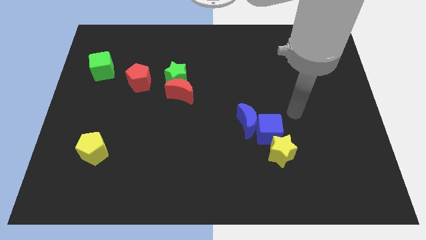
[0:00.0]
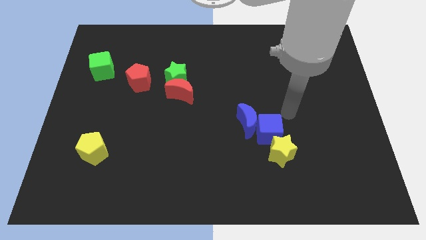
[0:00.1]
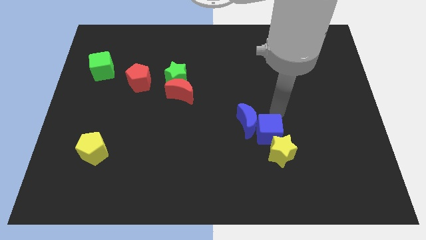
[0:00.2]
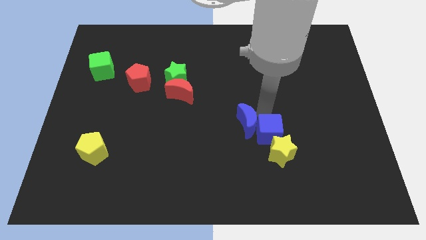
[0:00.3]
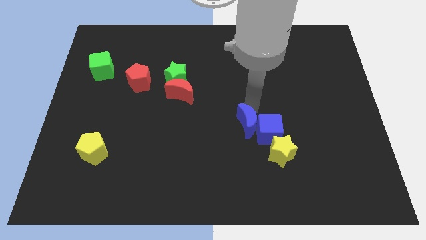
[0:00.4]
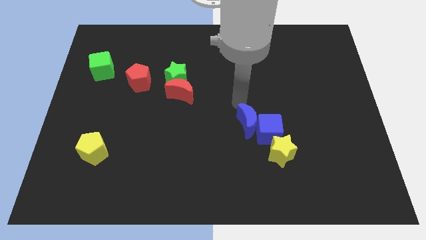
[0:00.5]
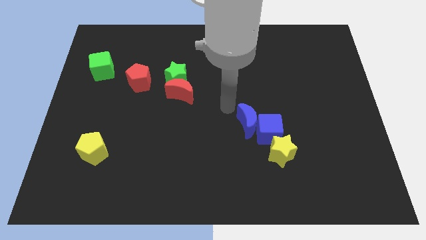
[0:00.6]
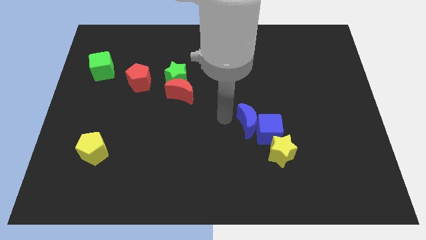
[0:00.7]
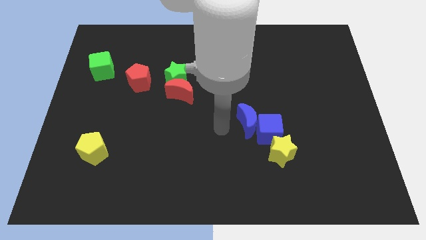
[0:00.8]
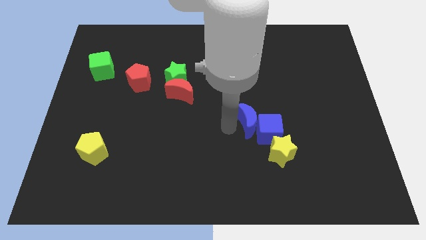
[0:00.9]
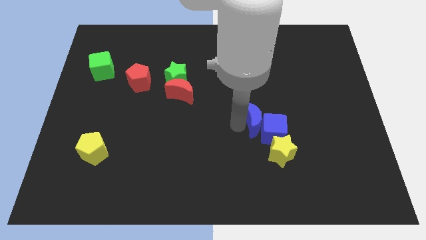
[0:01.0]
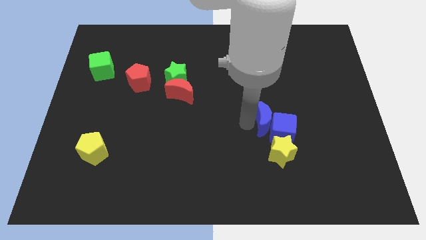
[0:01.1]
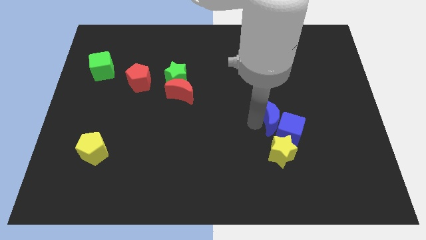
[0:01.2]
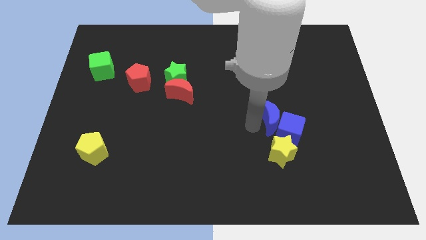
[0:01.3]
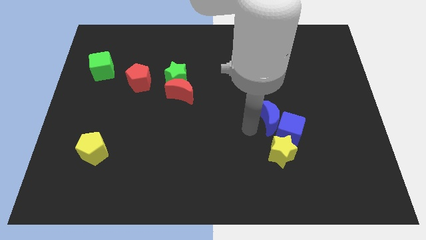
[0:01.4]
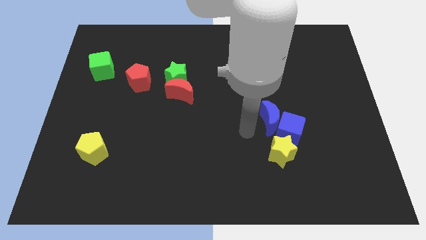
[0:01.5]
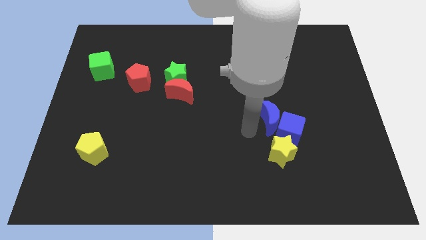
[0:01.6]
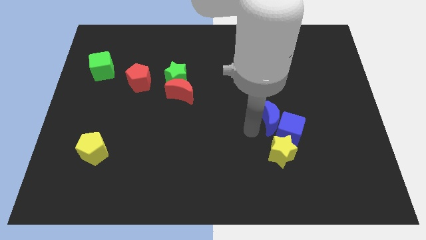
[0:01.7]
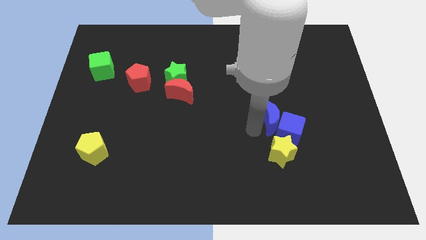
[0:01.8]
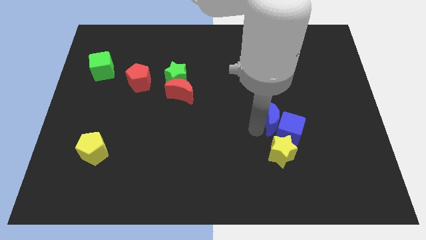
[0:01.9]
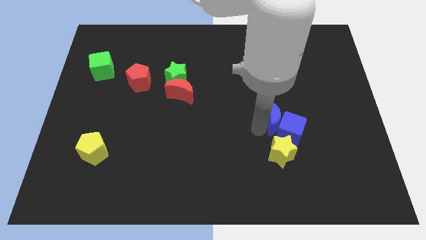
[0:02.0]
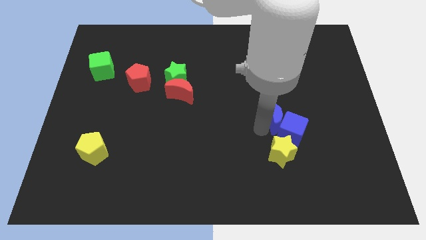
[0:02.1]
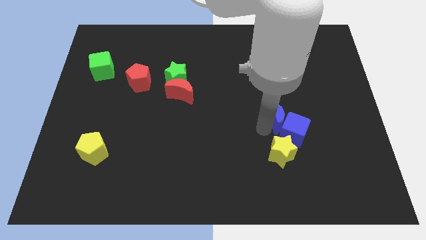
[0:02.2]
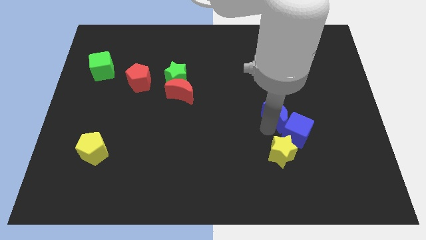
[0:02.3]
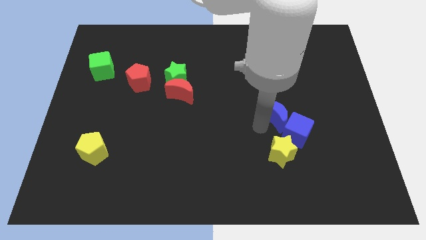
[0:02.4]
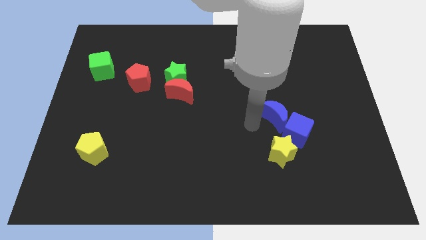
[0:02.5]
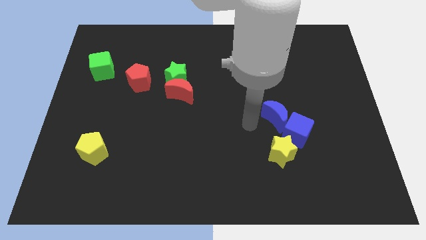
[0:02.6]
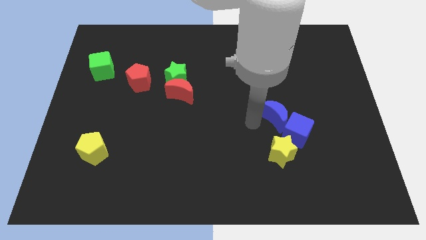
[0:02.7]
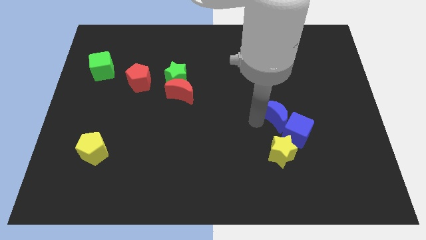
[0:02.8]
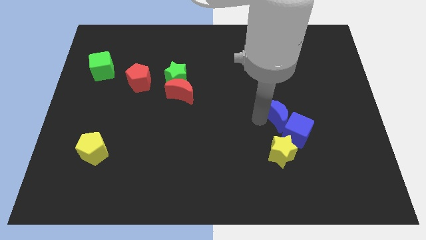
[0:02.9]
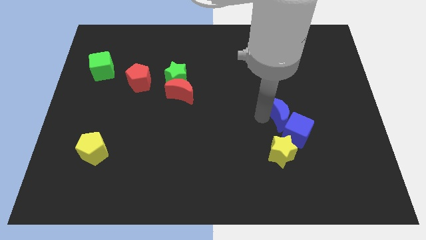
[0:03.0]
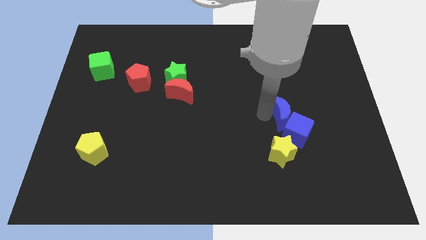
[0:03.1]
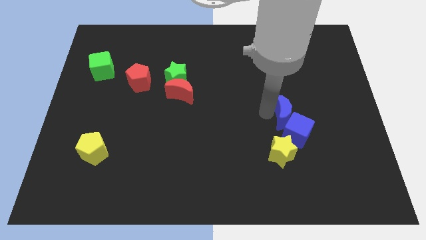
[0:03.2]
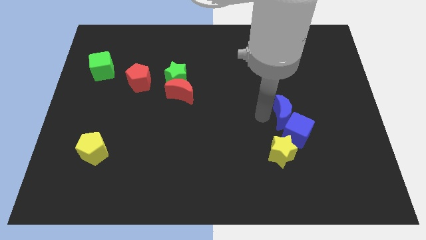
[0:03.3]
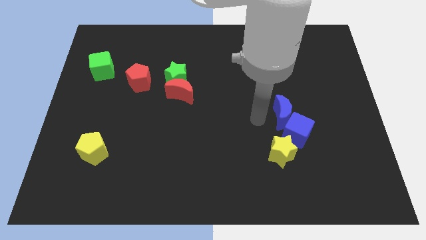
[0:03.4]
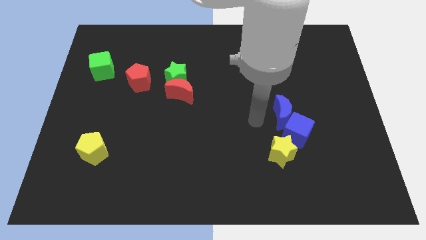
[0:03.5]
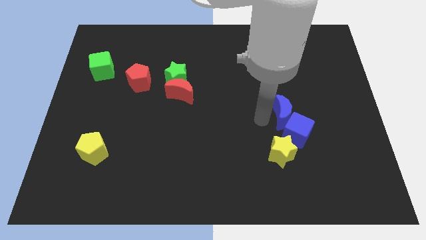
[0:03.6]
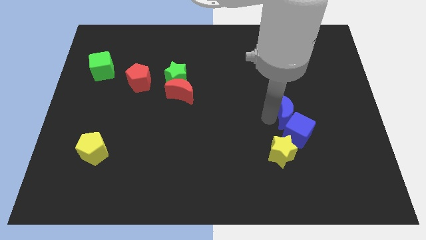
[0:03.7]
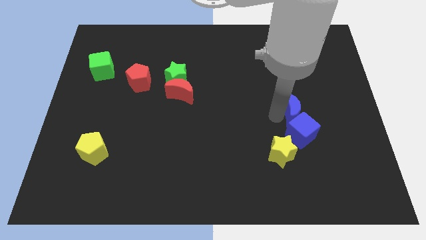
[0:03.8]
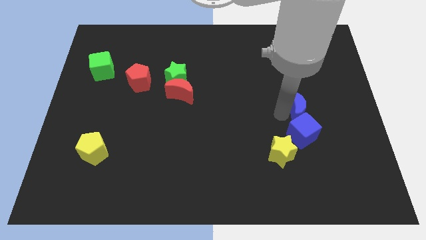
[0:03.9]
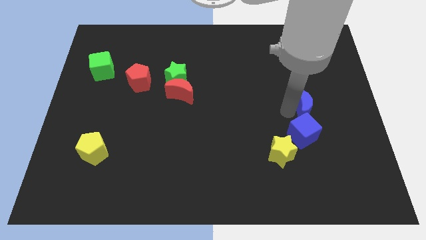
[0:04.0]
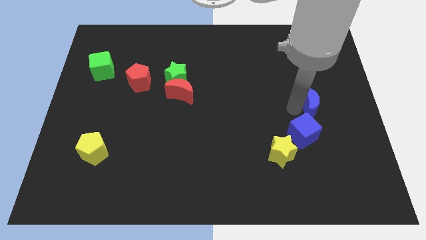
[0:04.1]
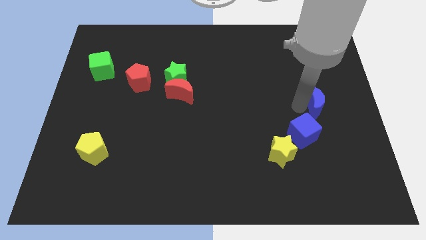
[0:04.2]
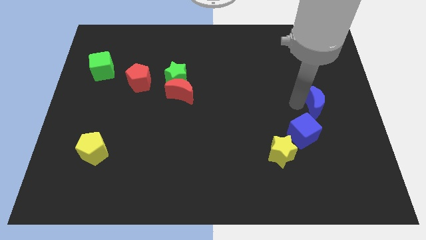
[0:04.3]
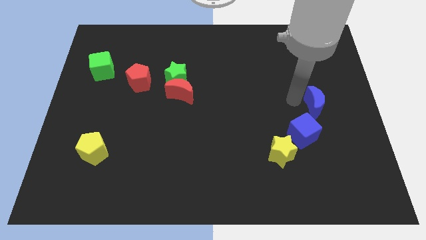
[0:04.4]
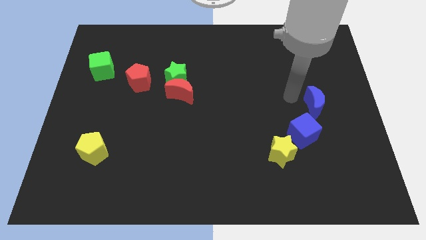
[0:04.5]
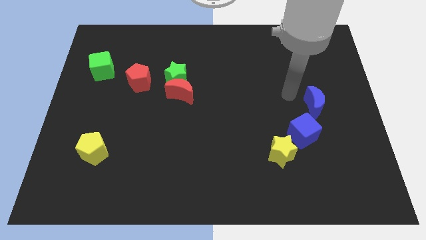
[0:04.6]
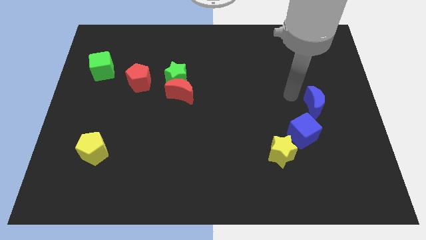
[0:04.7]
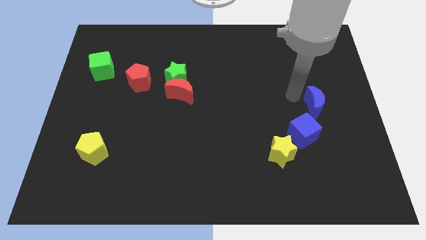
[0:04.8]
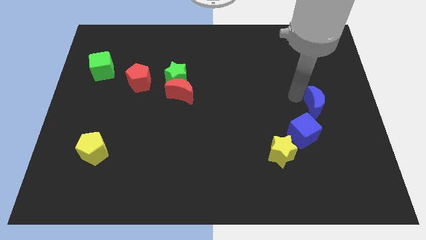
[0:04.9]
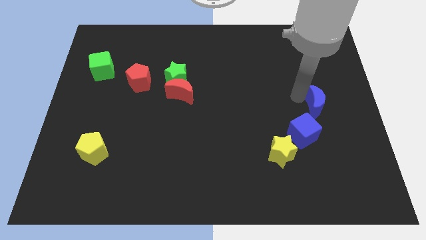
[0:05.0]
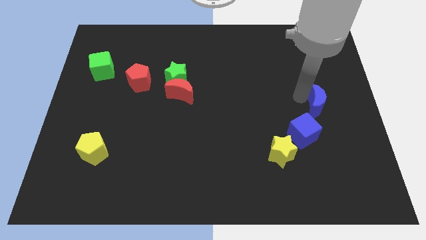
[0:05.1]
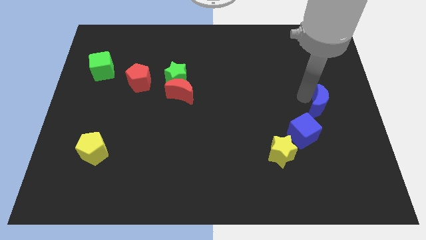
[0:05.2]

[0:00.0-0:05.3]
slide the blue moon to the right side of the board

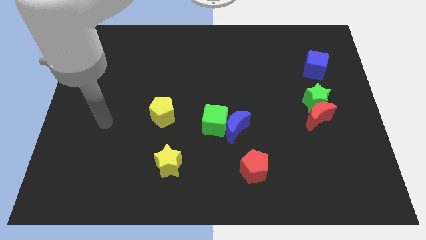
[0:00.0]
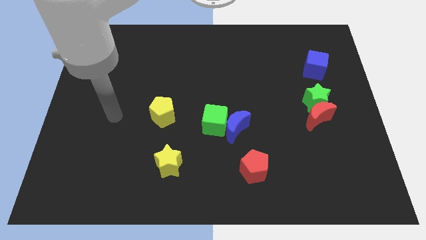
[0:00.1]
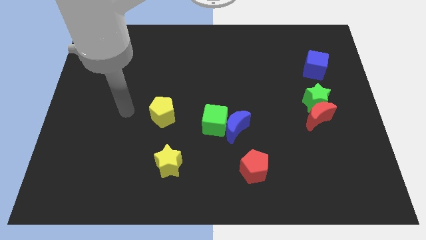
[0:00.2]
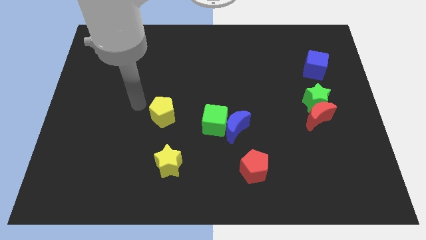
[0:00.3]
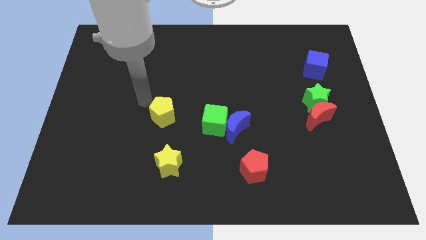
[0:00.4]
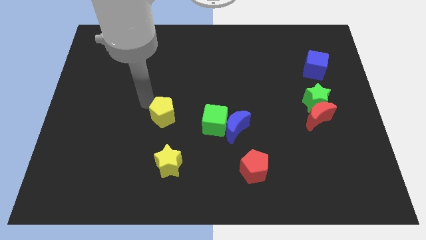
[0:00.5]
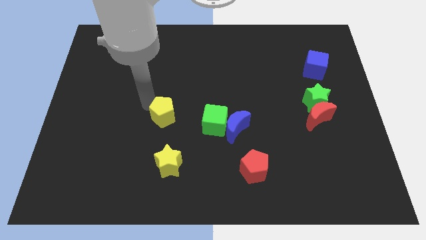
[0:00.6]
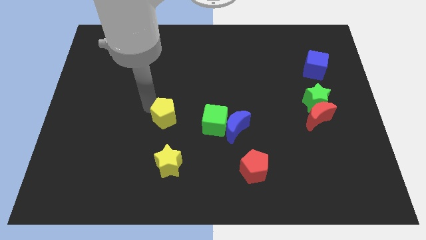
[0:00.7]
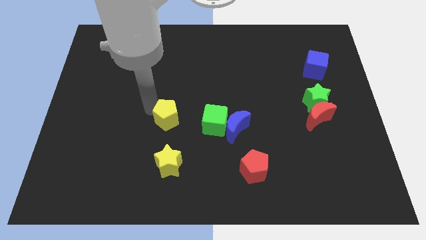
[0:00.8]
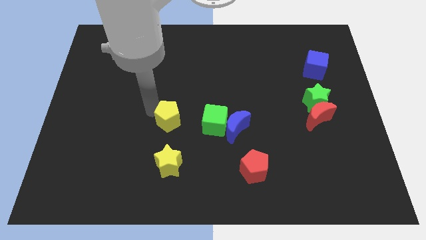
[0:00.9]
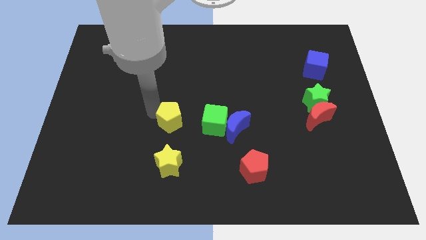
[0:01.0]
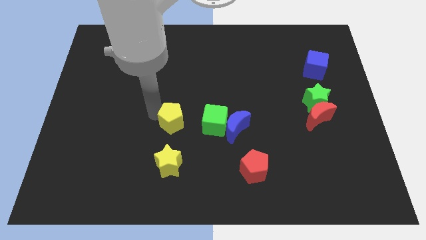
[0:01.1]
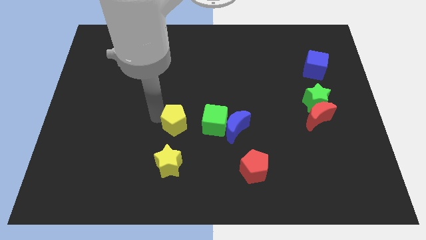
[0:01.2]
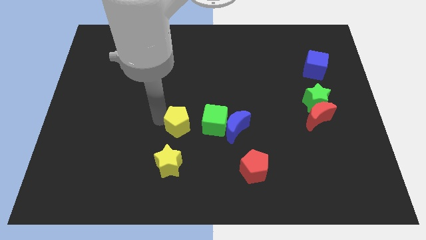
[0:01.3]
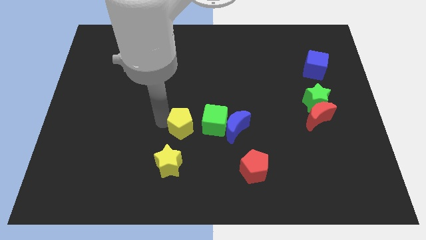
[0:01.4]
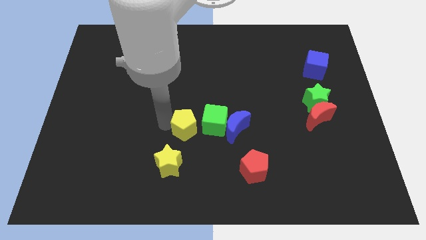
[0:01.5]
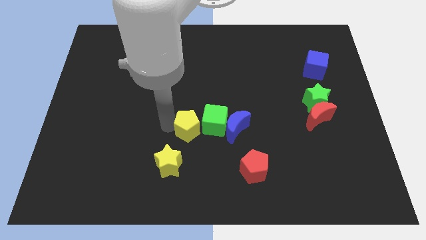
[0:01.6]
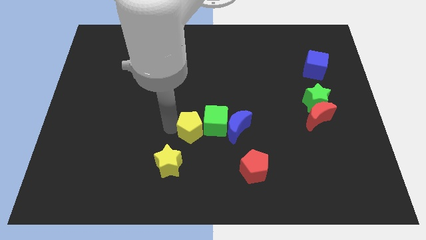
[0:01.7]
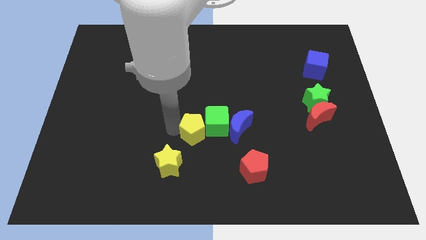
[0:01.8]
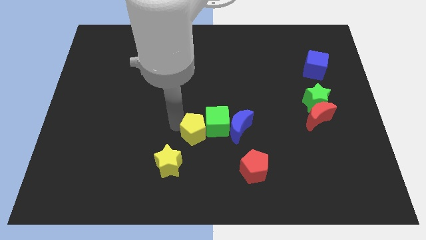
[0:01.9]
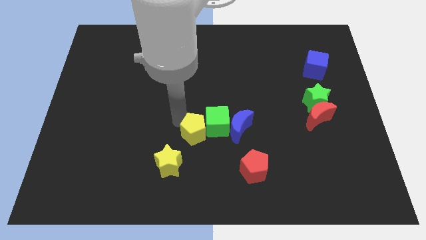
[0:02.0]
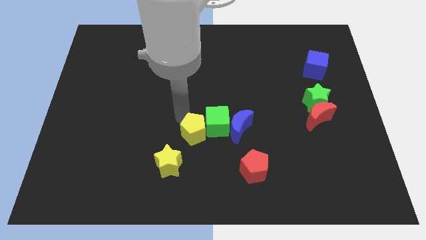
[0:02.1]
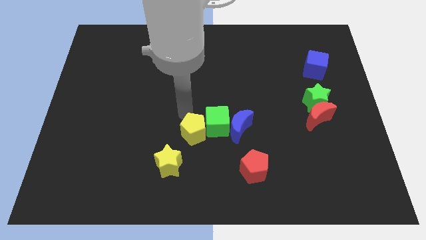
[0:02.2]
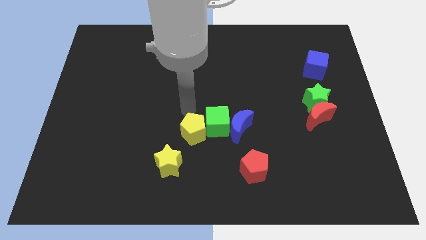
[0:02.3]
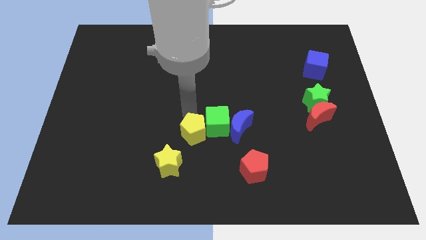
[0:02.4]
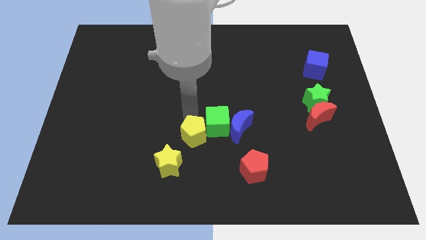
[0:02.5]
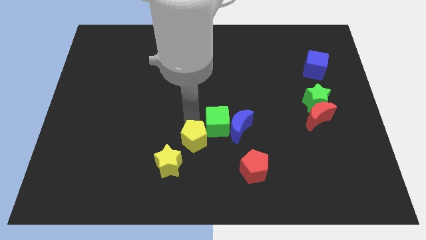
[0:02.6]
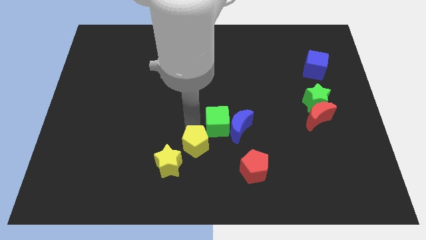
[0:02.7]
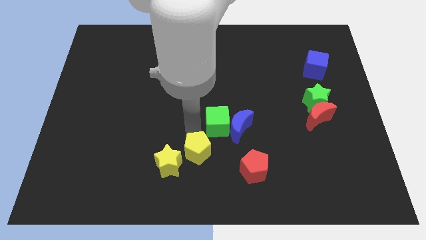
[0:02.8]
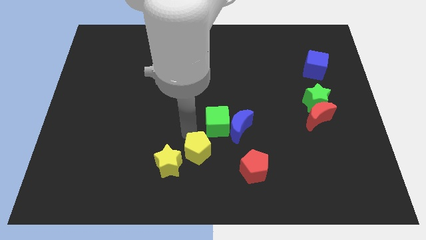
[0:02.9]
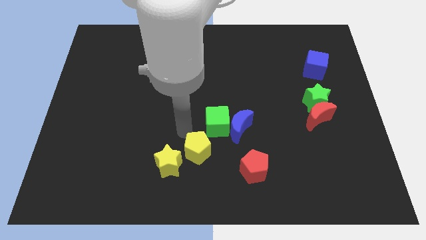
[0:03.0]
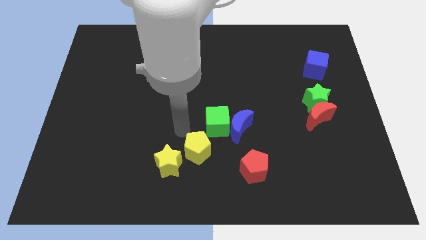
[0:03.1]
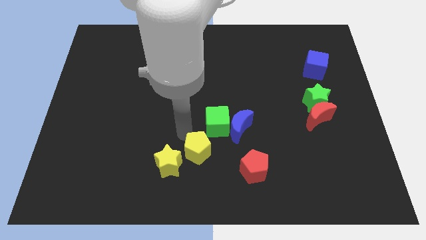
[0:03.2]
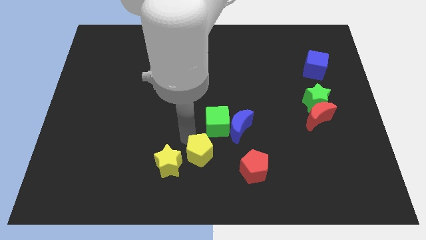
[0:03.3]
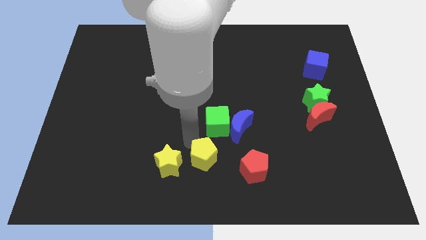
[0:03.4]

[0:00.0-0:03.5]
put the yellow pentagon to the bottom side
